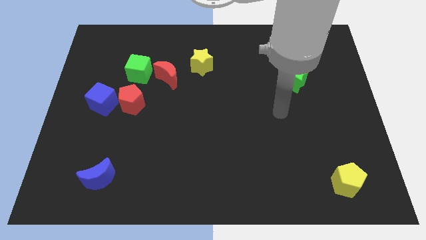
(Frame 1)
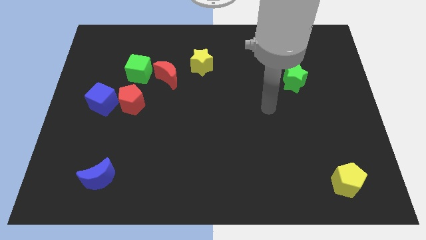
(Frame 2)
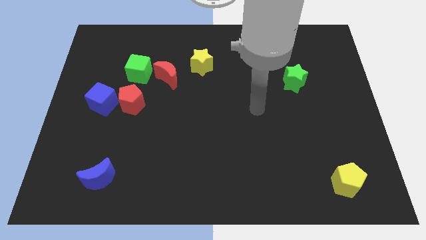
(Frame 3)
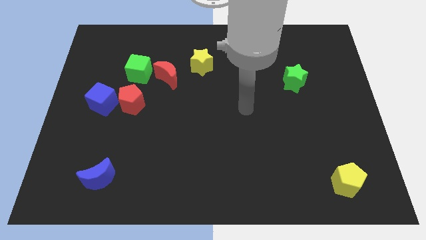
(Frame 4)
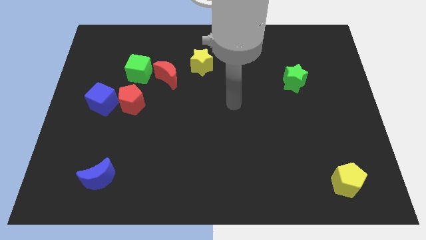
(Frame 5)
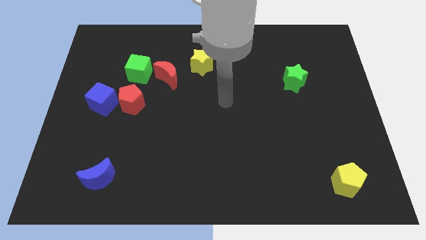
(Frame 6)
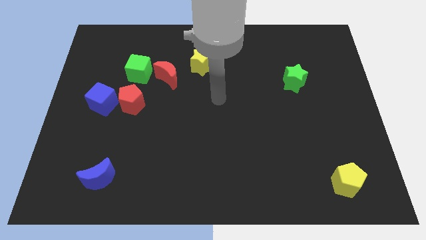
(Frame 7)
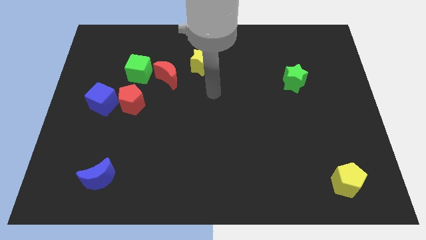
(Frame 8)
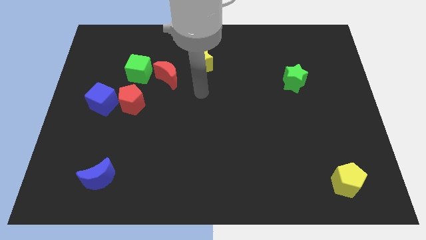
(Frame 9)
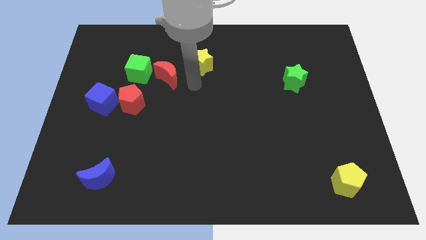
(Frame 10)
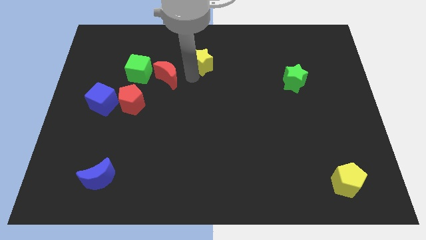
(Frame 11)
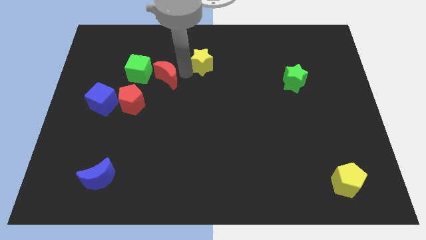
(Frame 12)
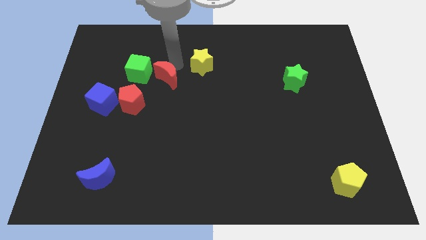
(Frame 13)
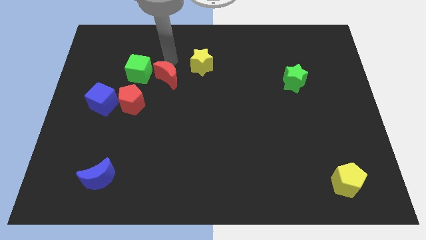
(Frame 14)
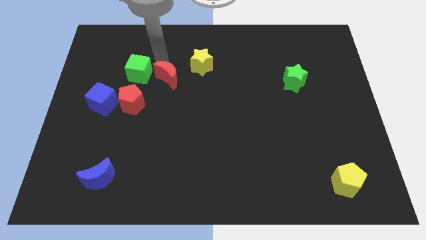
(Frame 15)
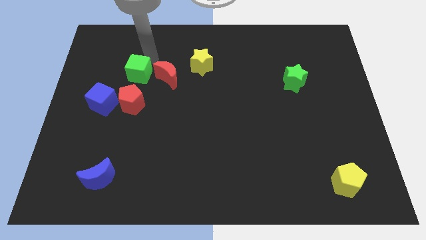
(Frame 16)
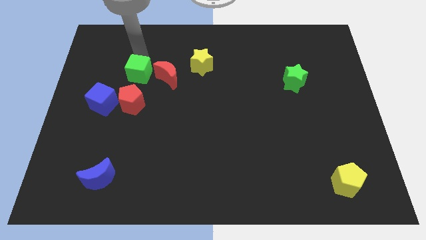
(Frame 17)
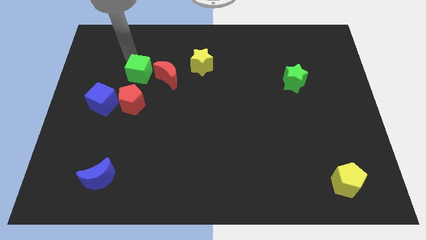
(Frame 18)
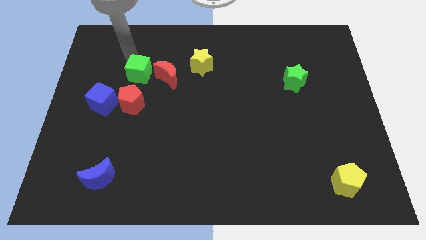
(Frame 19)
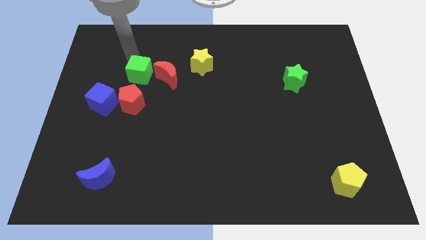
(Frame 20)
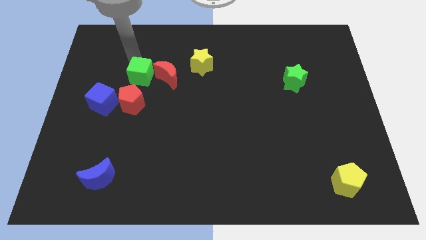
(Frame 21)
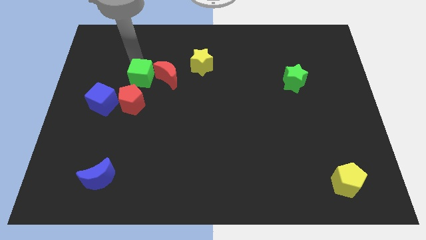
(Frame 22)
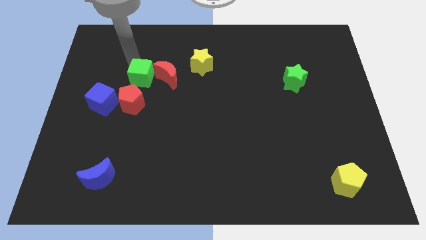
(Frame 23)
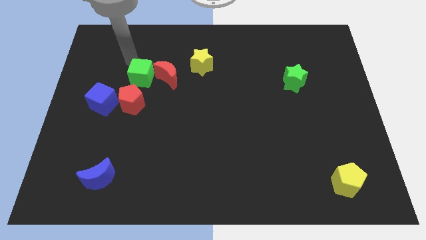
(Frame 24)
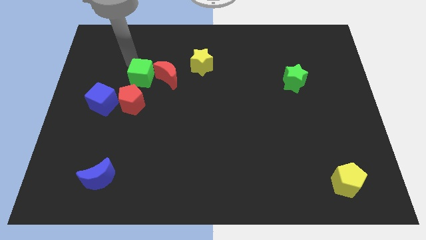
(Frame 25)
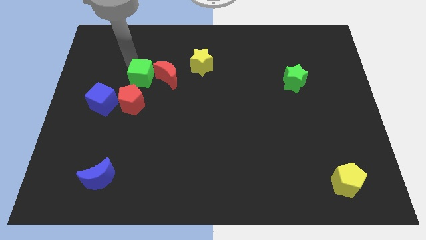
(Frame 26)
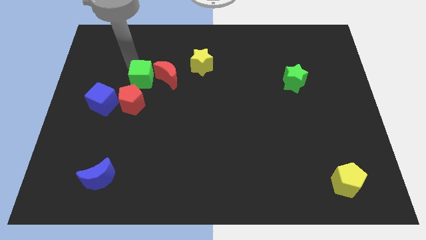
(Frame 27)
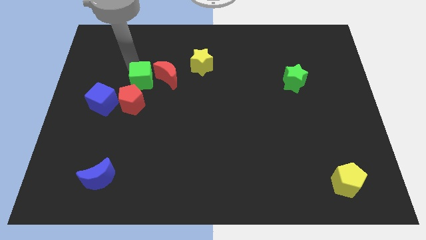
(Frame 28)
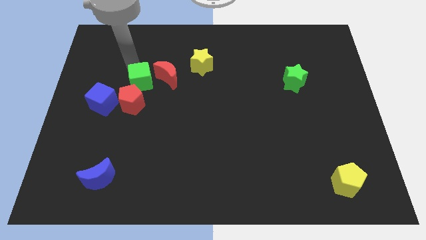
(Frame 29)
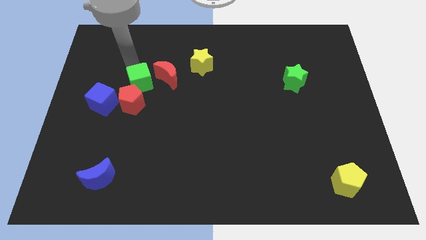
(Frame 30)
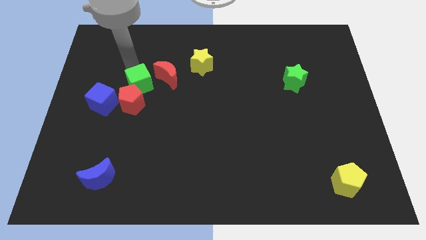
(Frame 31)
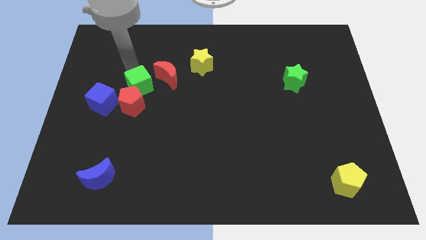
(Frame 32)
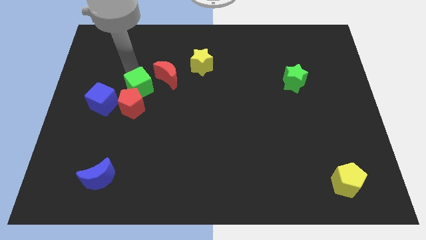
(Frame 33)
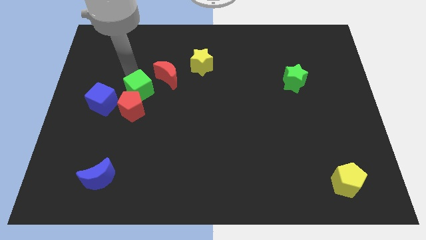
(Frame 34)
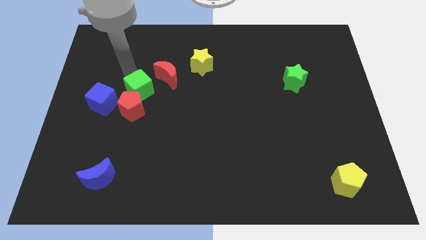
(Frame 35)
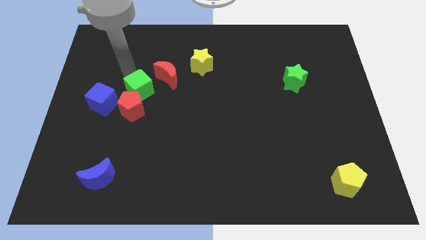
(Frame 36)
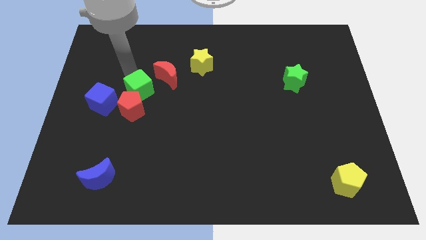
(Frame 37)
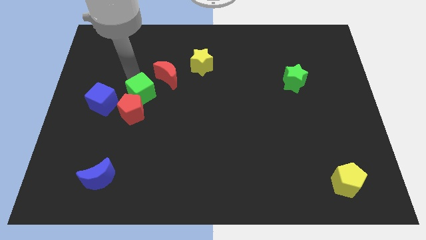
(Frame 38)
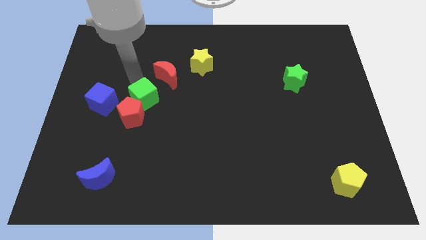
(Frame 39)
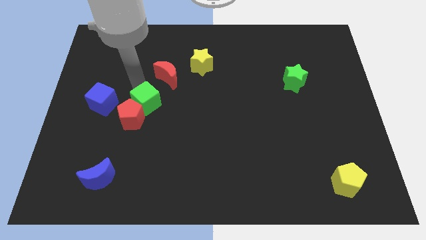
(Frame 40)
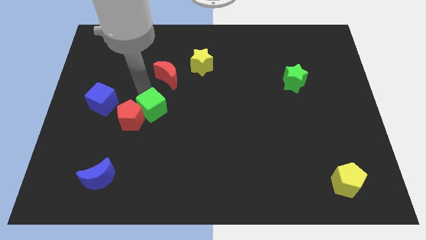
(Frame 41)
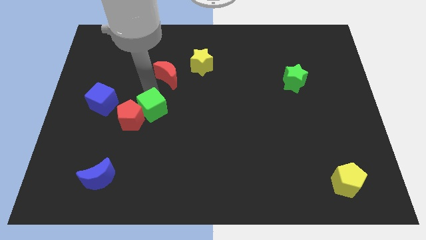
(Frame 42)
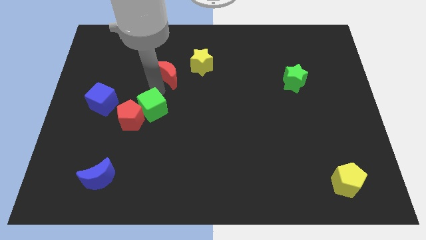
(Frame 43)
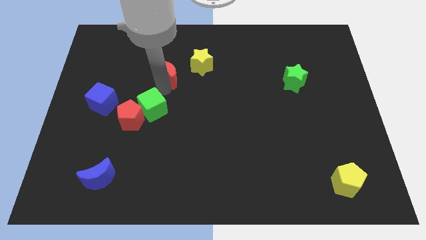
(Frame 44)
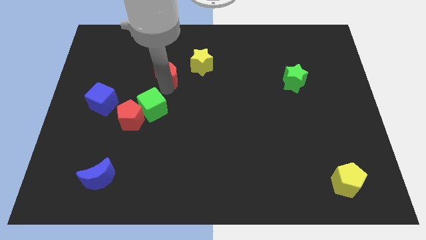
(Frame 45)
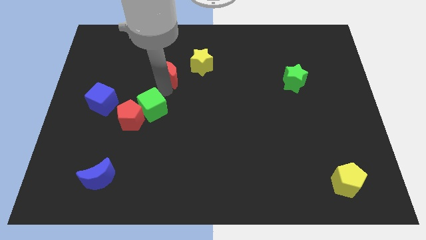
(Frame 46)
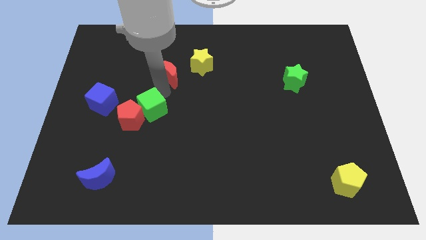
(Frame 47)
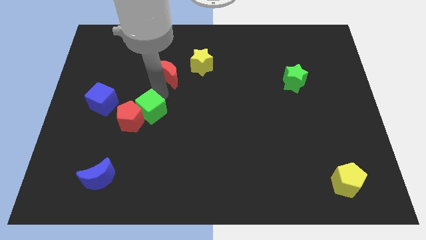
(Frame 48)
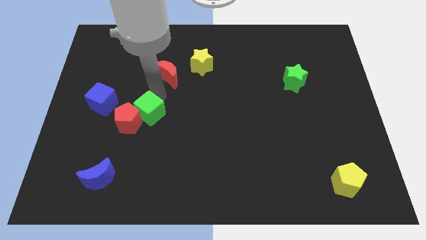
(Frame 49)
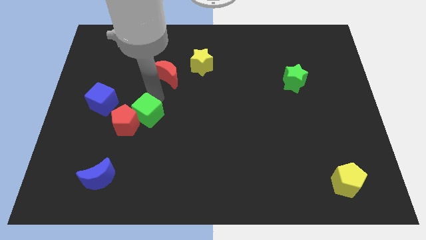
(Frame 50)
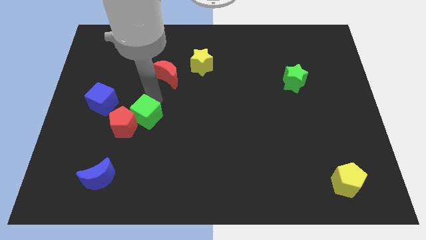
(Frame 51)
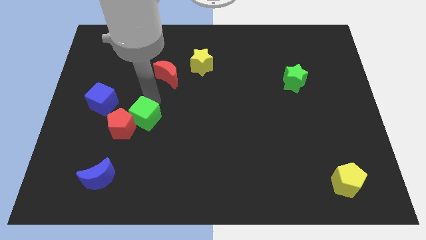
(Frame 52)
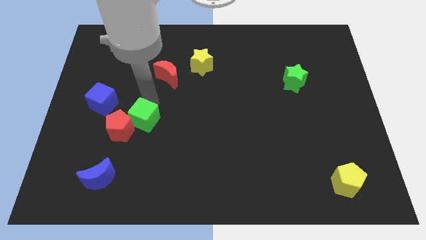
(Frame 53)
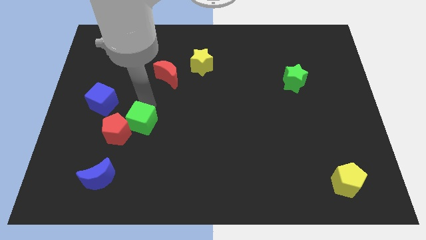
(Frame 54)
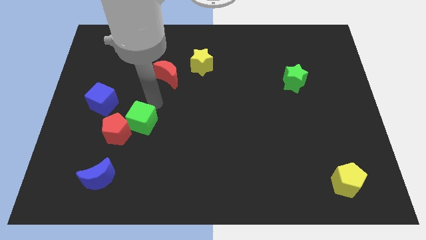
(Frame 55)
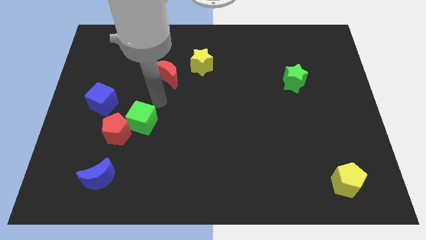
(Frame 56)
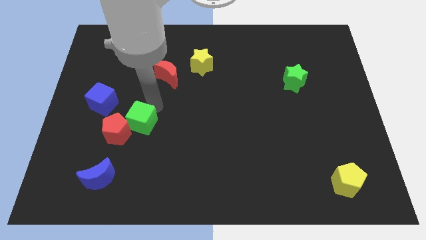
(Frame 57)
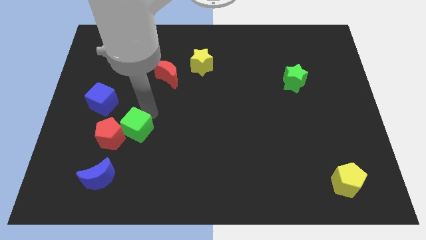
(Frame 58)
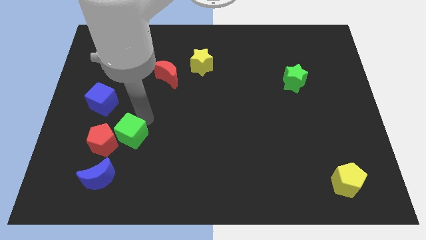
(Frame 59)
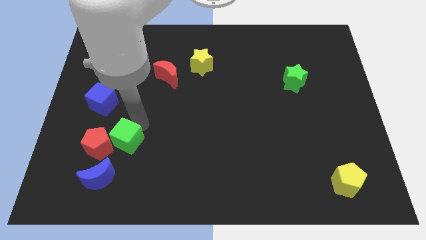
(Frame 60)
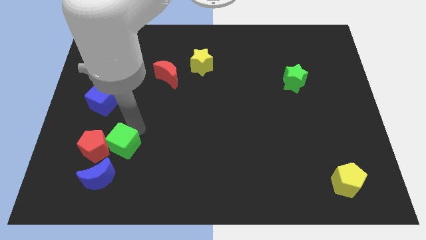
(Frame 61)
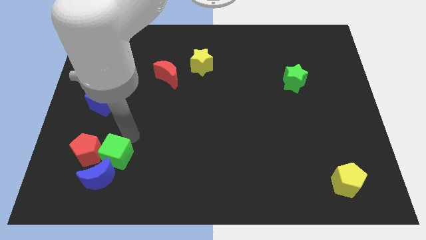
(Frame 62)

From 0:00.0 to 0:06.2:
push the green cube towards the blue moon

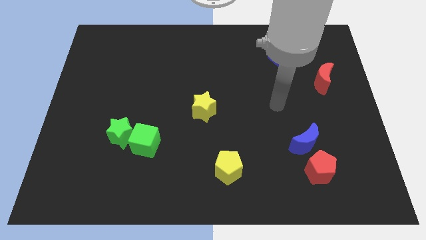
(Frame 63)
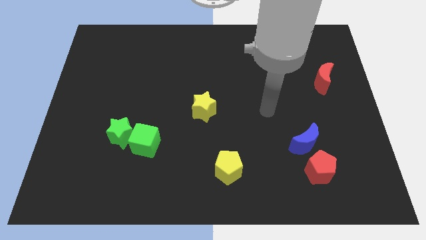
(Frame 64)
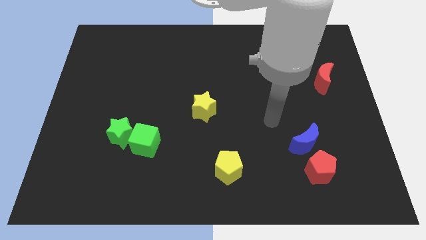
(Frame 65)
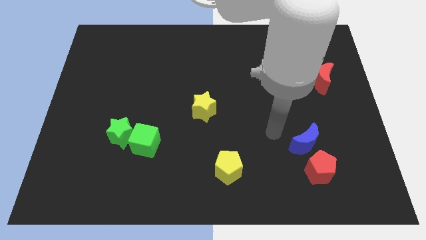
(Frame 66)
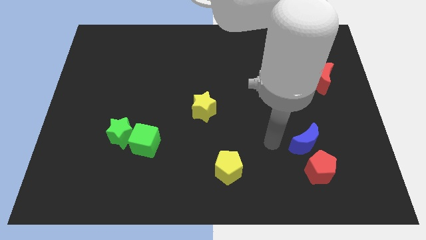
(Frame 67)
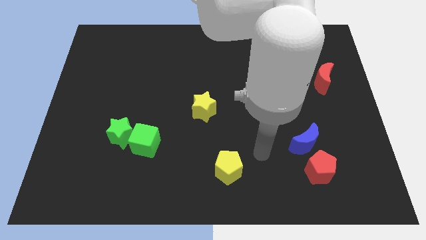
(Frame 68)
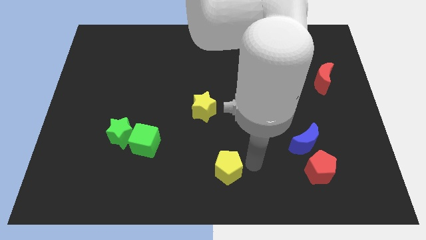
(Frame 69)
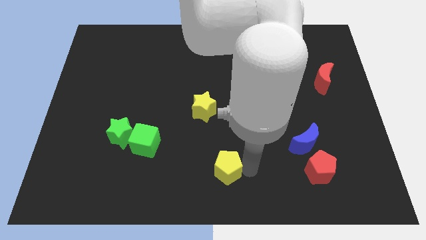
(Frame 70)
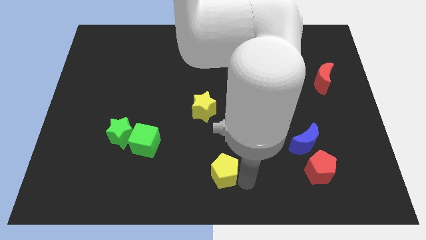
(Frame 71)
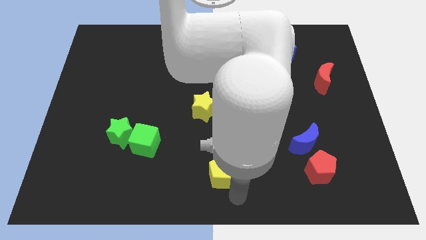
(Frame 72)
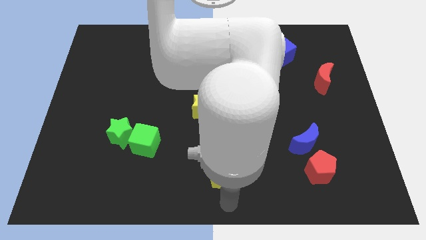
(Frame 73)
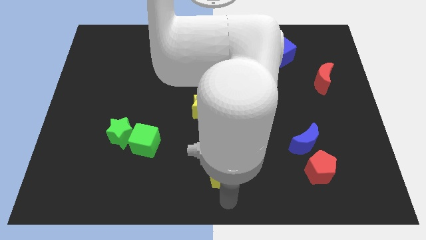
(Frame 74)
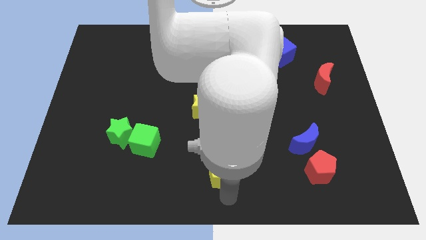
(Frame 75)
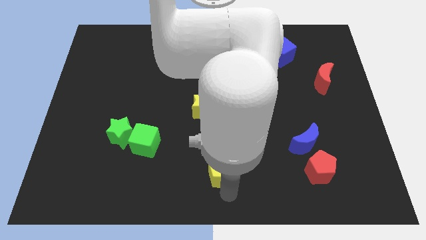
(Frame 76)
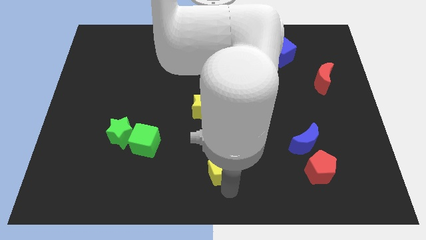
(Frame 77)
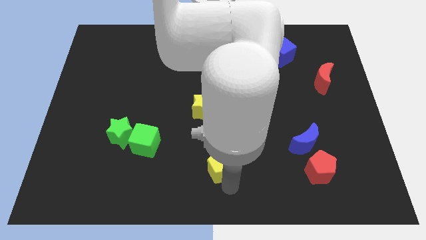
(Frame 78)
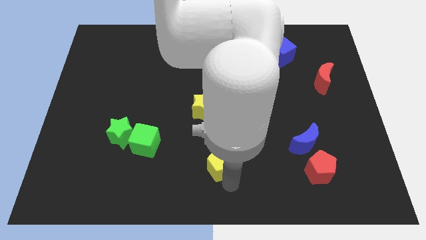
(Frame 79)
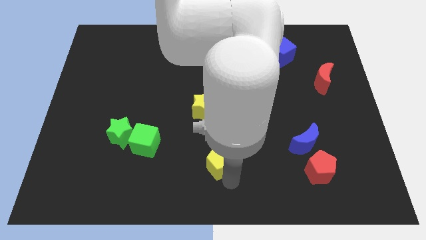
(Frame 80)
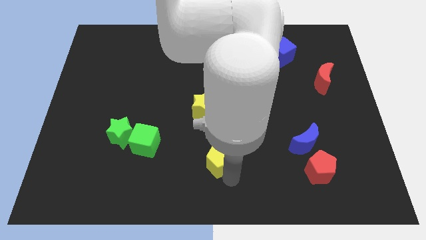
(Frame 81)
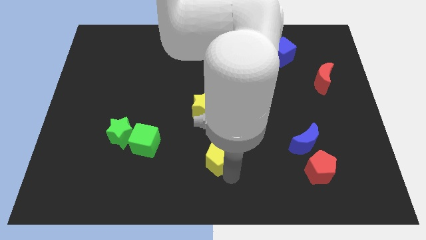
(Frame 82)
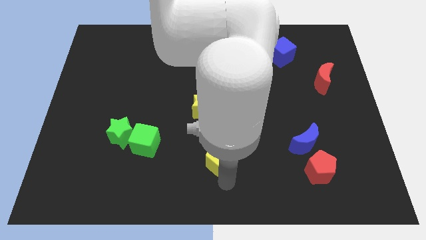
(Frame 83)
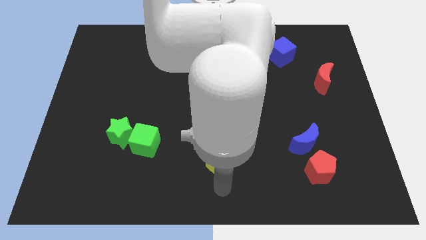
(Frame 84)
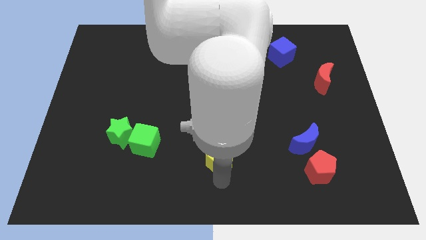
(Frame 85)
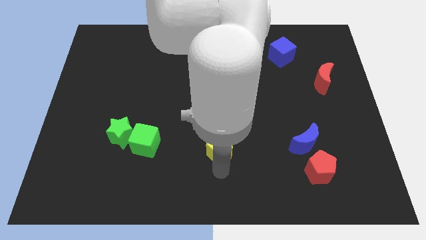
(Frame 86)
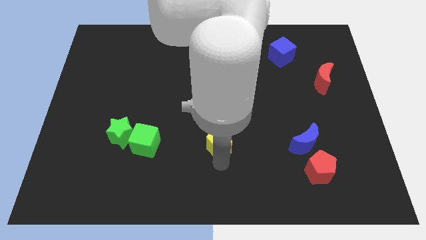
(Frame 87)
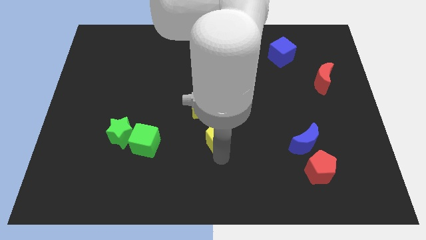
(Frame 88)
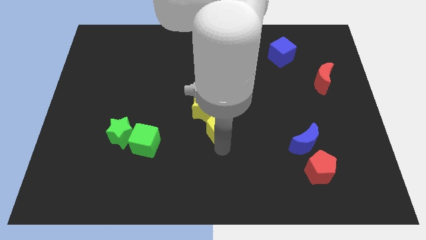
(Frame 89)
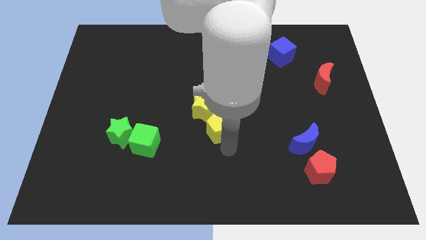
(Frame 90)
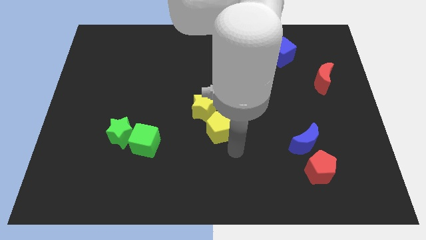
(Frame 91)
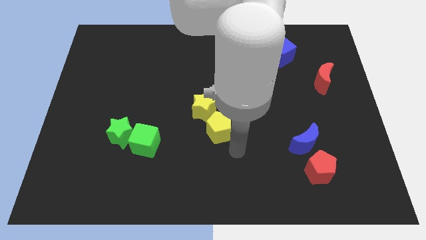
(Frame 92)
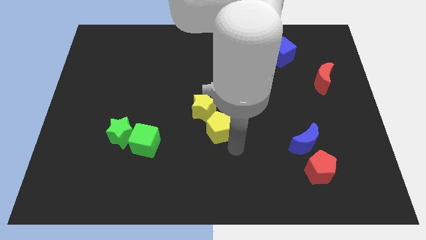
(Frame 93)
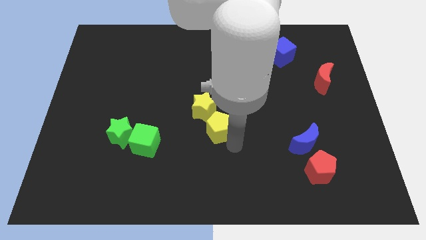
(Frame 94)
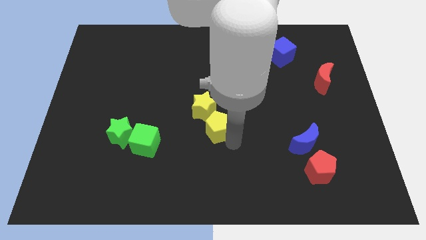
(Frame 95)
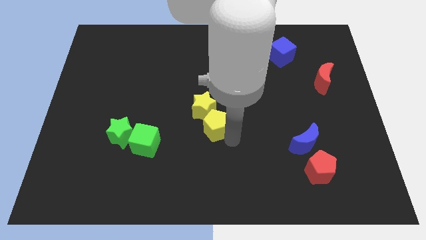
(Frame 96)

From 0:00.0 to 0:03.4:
put the yellow pentagon to the yellow star
